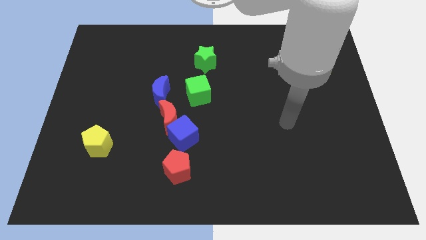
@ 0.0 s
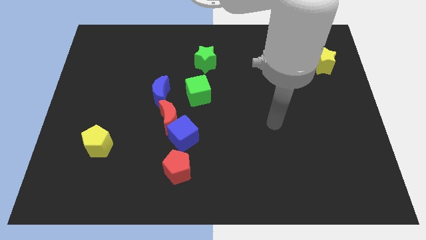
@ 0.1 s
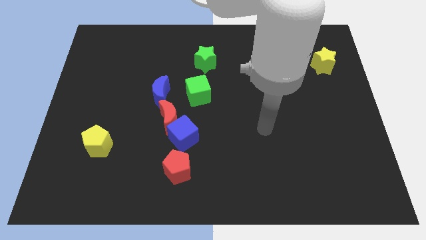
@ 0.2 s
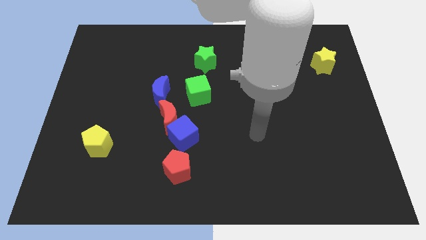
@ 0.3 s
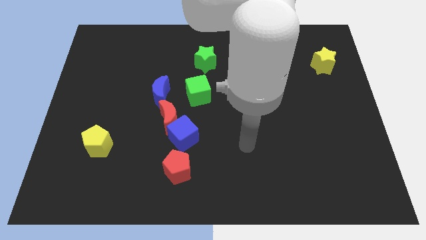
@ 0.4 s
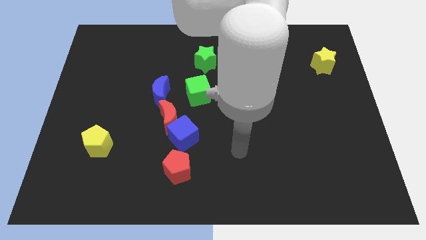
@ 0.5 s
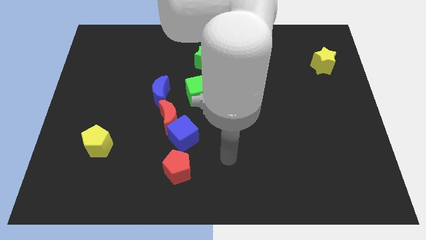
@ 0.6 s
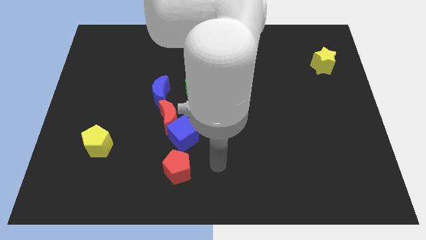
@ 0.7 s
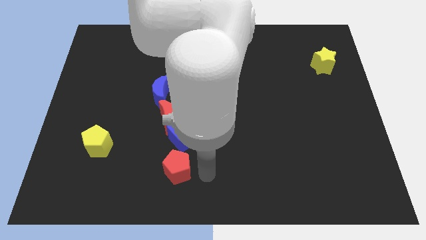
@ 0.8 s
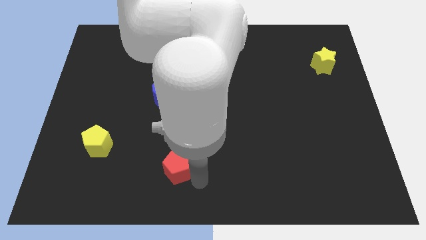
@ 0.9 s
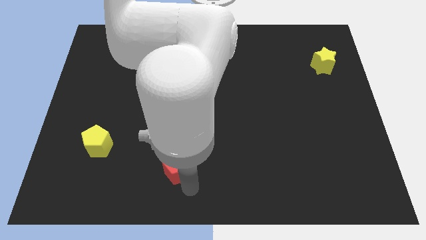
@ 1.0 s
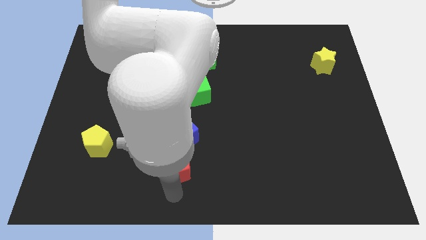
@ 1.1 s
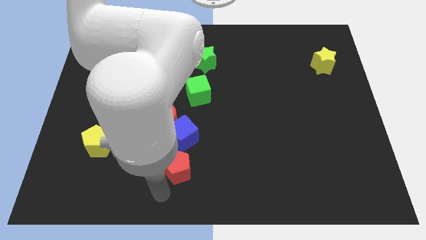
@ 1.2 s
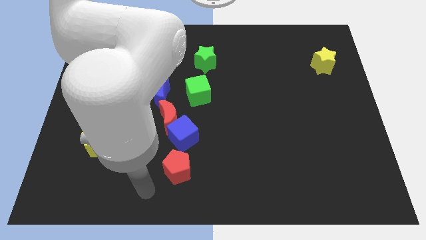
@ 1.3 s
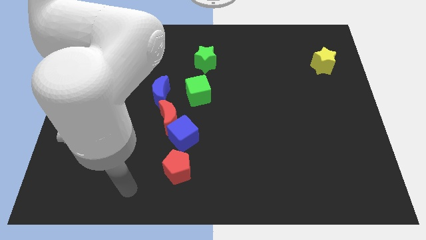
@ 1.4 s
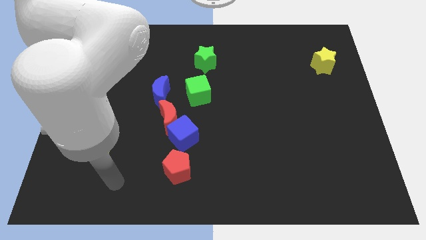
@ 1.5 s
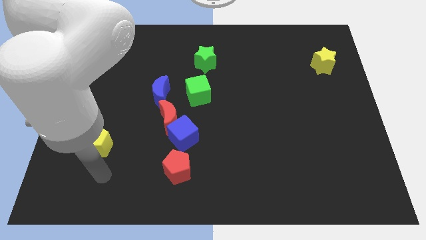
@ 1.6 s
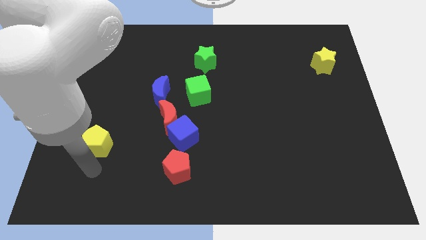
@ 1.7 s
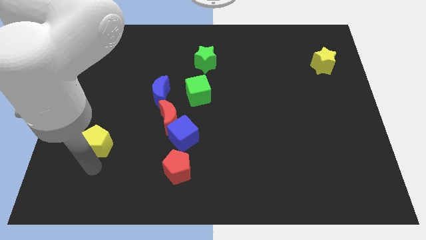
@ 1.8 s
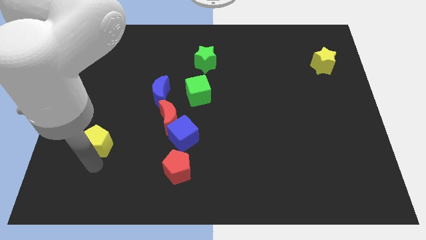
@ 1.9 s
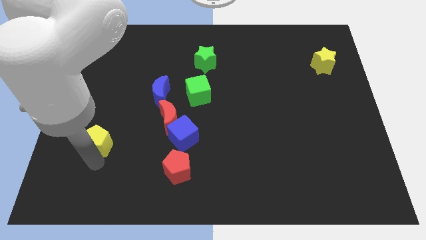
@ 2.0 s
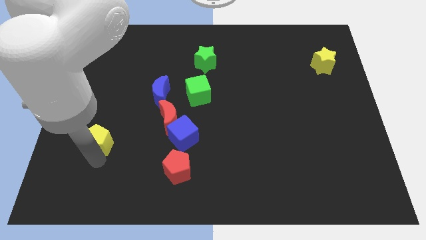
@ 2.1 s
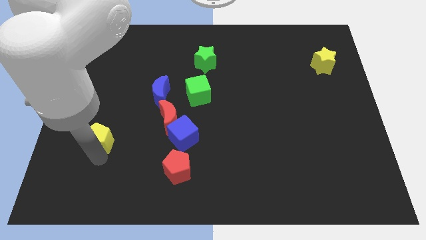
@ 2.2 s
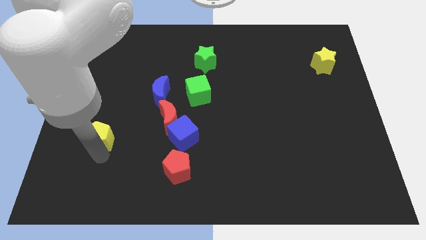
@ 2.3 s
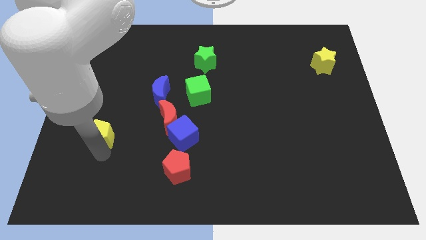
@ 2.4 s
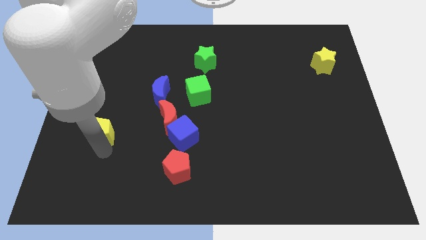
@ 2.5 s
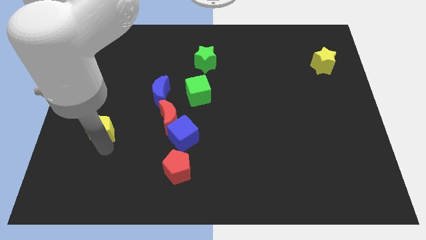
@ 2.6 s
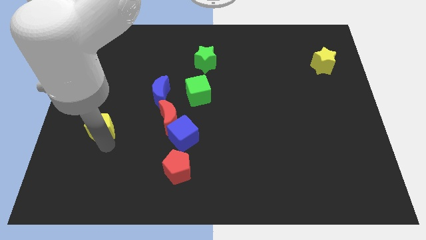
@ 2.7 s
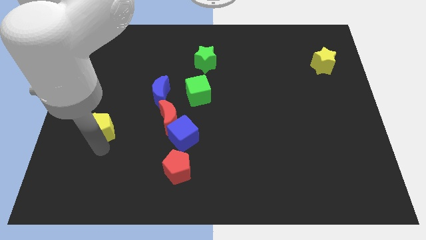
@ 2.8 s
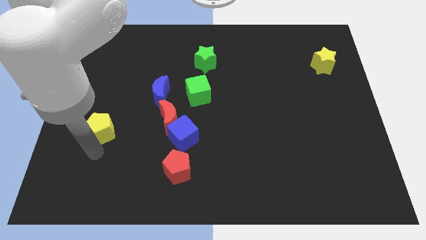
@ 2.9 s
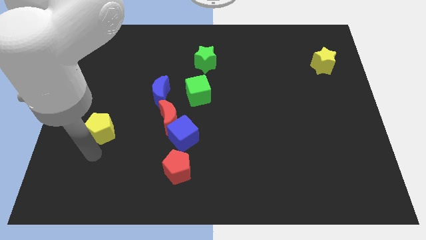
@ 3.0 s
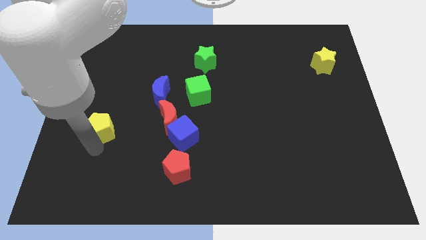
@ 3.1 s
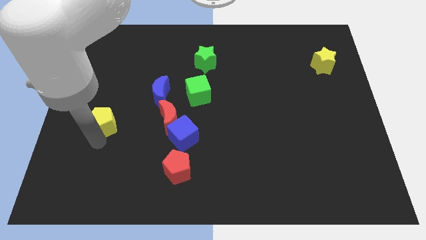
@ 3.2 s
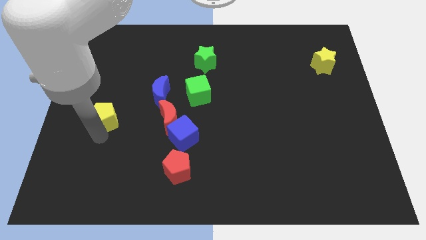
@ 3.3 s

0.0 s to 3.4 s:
move the yellow pentagon a bit upwards

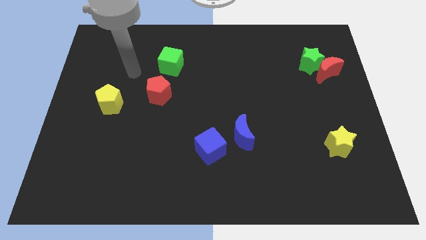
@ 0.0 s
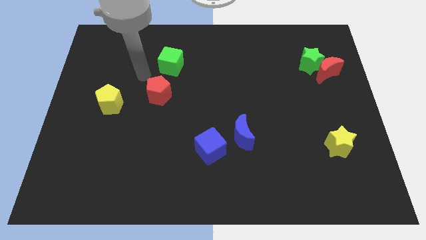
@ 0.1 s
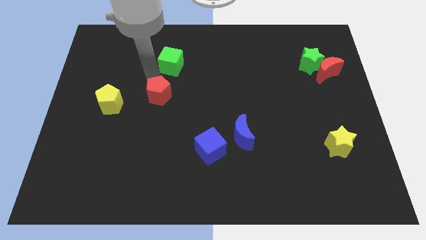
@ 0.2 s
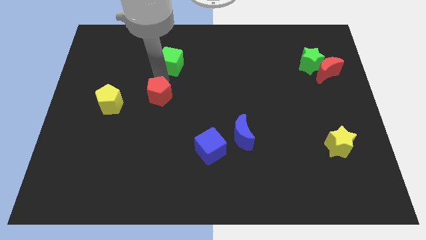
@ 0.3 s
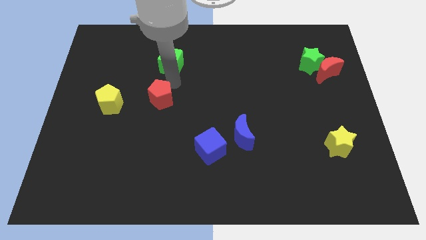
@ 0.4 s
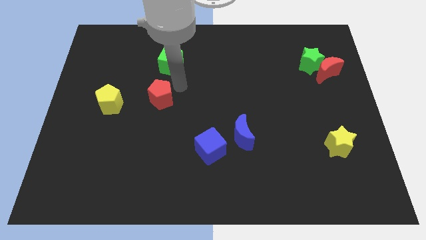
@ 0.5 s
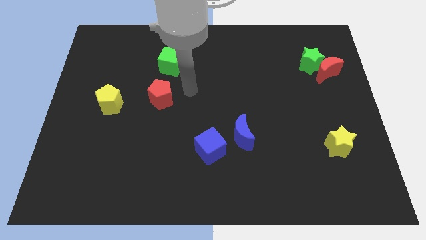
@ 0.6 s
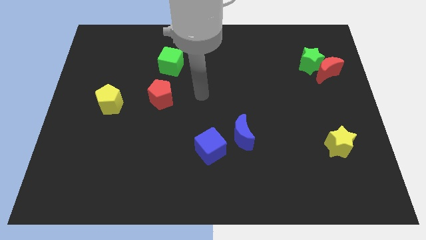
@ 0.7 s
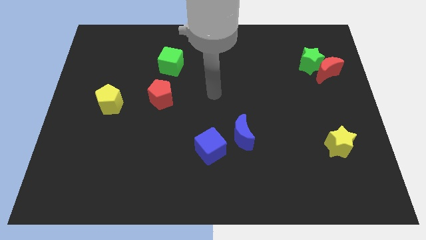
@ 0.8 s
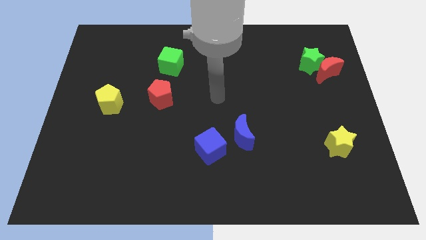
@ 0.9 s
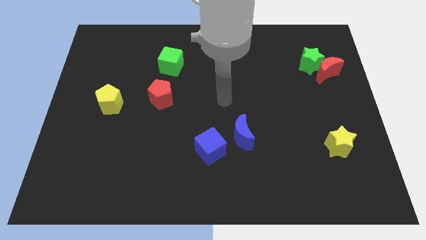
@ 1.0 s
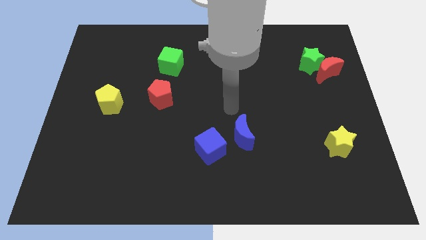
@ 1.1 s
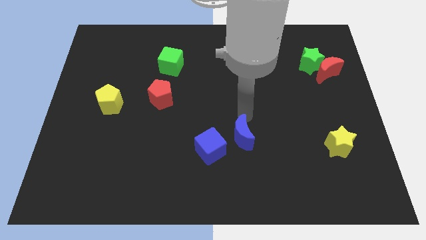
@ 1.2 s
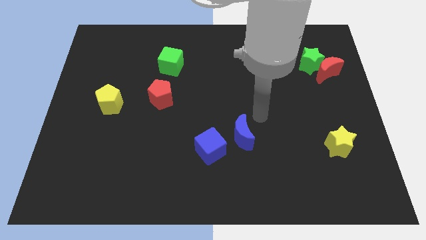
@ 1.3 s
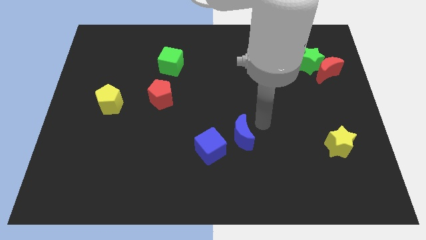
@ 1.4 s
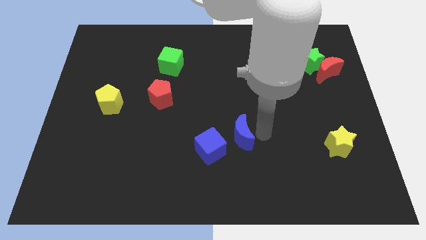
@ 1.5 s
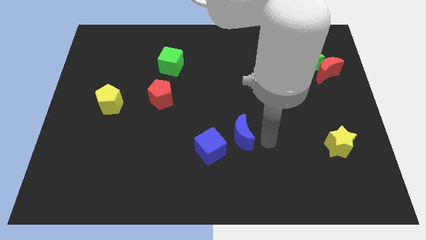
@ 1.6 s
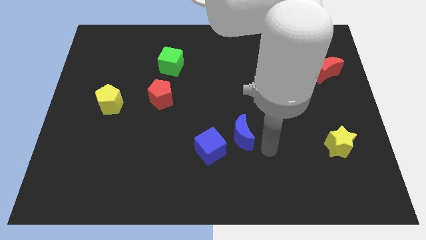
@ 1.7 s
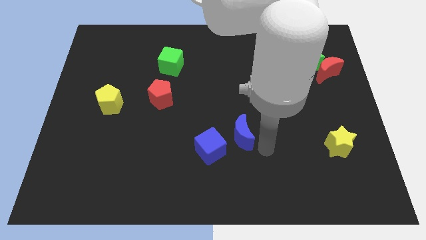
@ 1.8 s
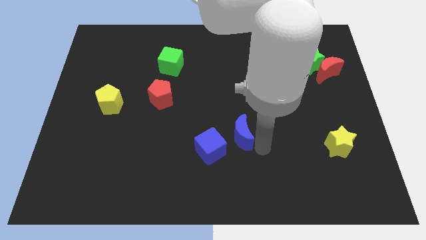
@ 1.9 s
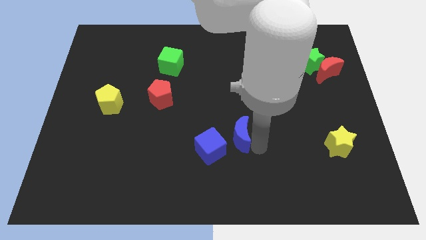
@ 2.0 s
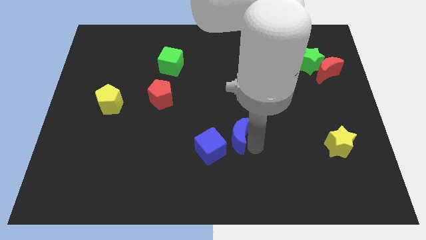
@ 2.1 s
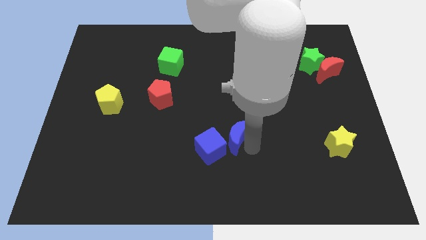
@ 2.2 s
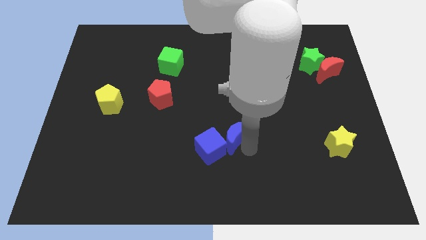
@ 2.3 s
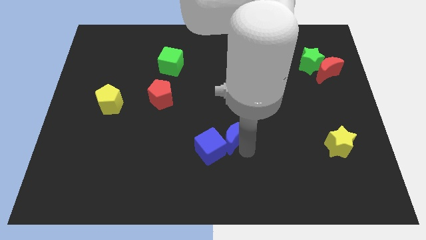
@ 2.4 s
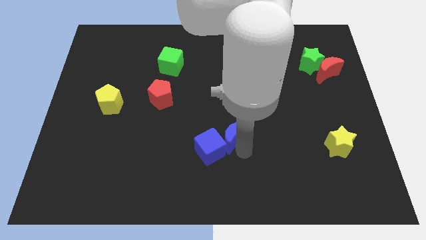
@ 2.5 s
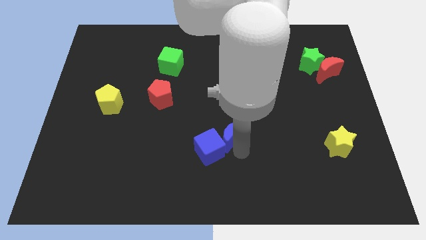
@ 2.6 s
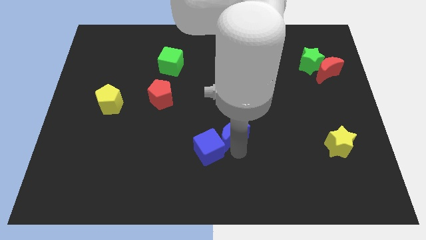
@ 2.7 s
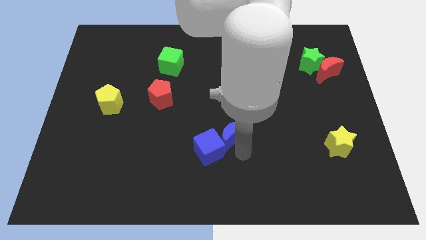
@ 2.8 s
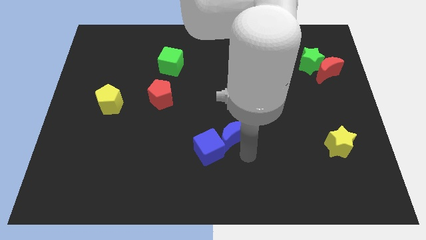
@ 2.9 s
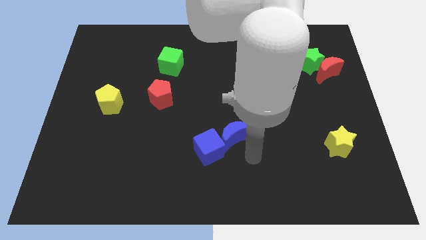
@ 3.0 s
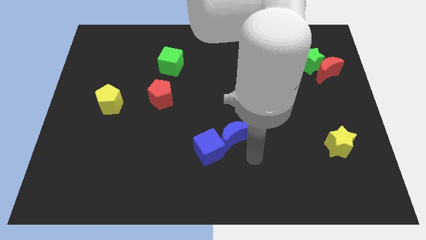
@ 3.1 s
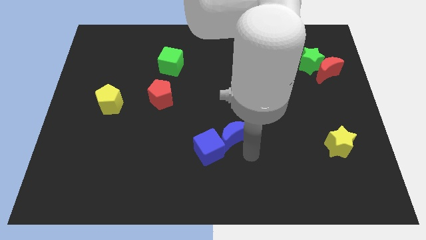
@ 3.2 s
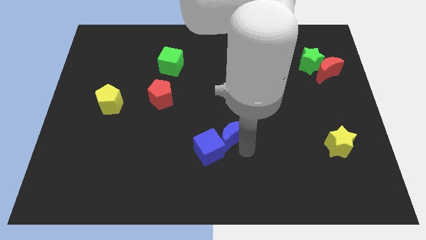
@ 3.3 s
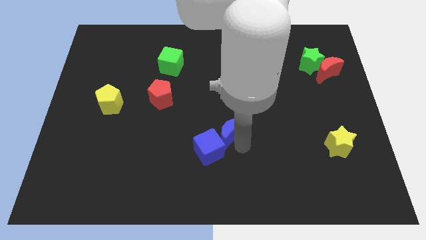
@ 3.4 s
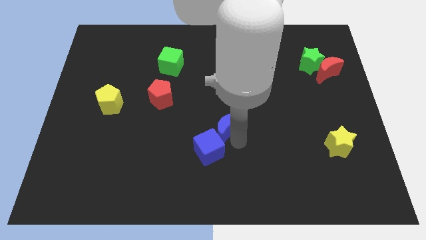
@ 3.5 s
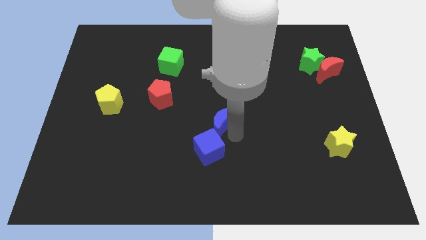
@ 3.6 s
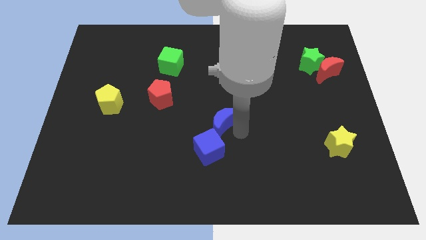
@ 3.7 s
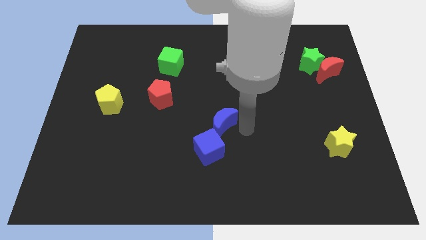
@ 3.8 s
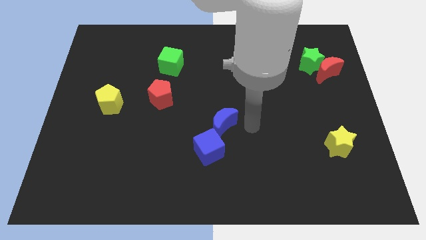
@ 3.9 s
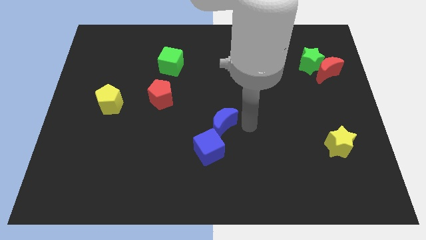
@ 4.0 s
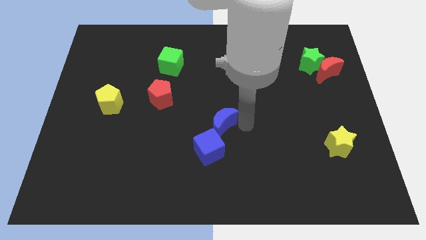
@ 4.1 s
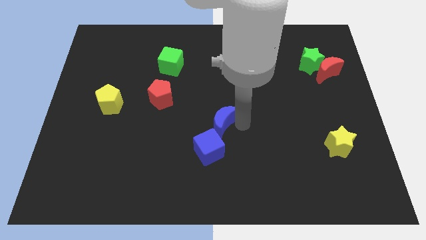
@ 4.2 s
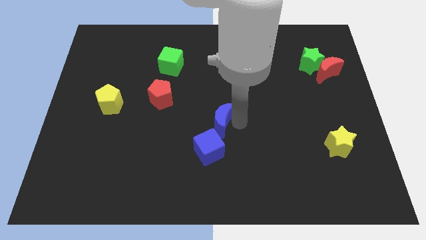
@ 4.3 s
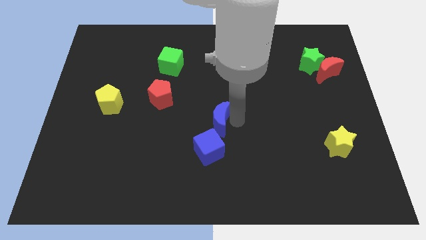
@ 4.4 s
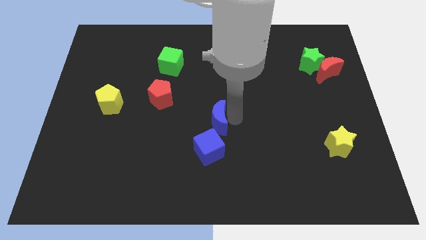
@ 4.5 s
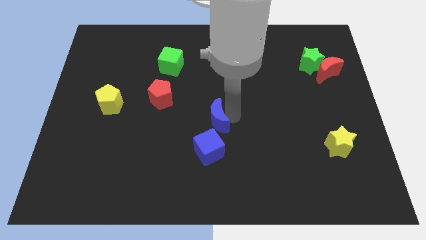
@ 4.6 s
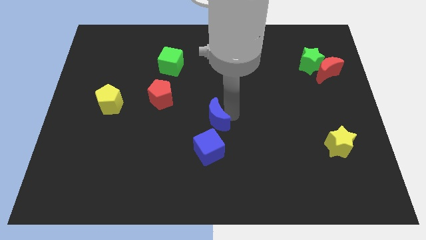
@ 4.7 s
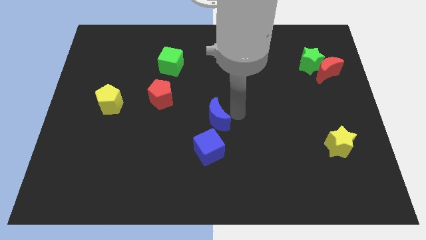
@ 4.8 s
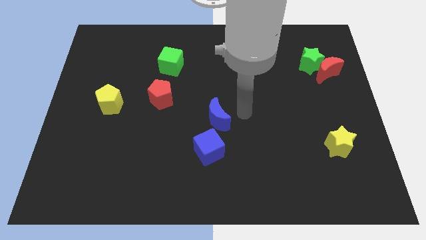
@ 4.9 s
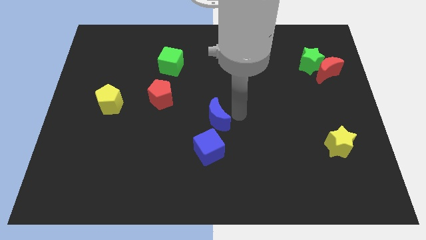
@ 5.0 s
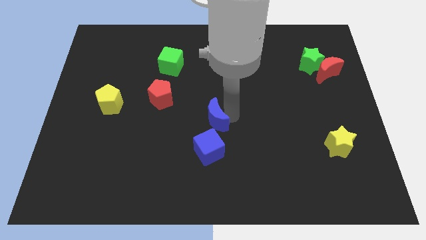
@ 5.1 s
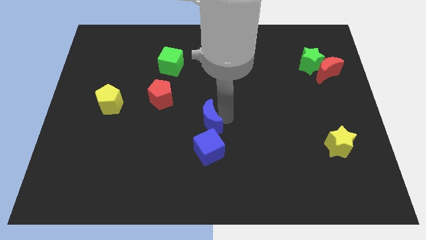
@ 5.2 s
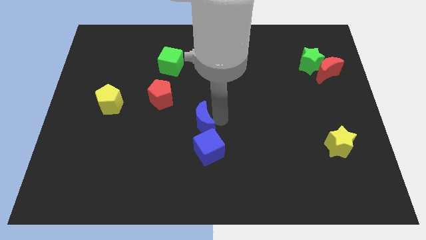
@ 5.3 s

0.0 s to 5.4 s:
slide the blue moon left a little bit
